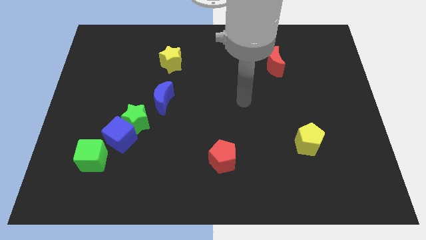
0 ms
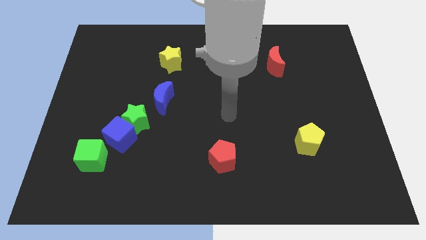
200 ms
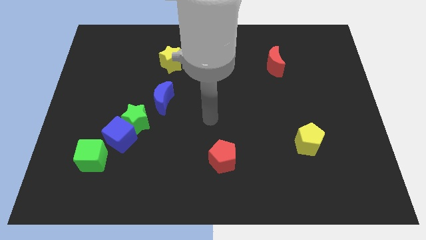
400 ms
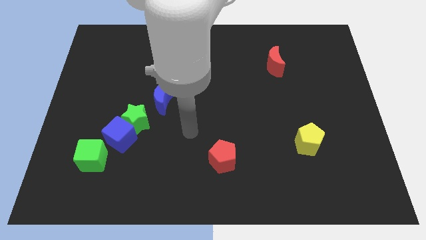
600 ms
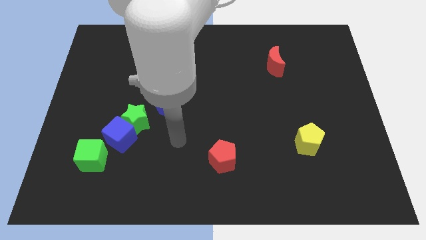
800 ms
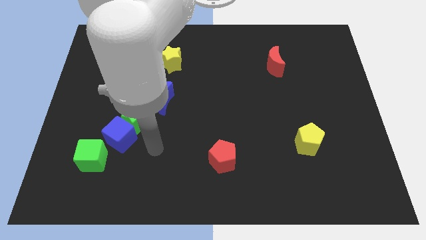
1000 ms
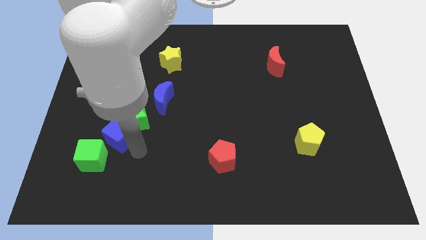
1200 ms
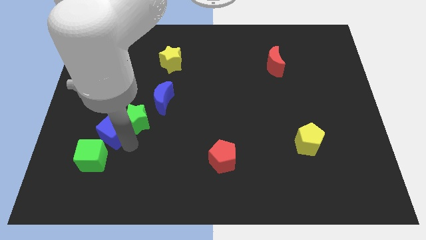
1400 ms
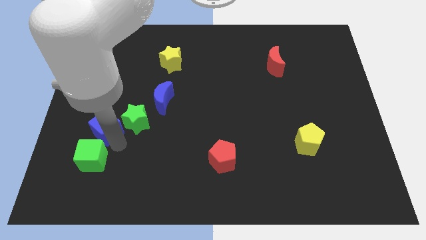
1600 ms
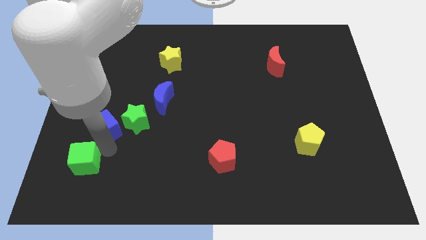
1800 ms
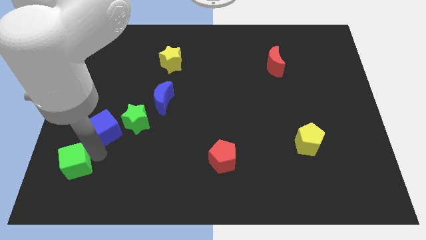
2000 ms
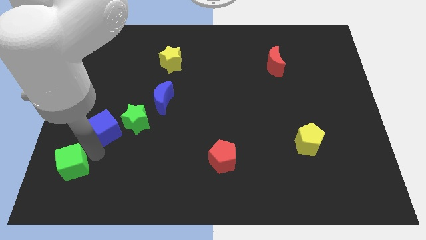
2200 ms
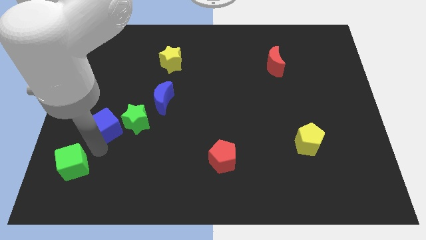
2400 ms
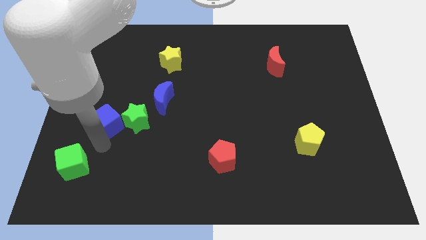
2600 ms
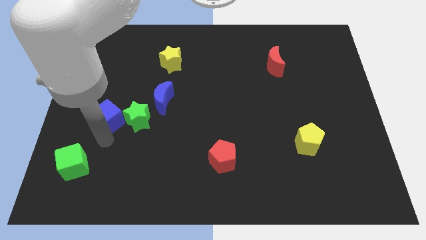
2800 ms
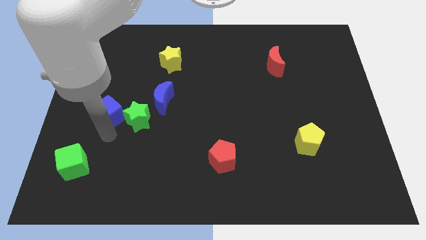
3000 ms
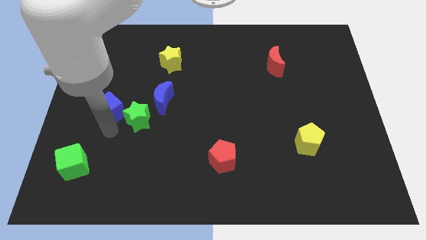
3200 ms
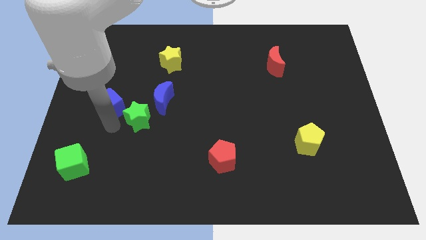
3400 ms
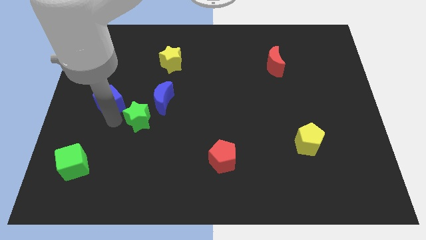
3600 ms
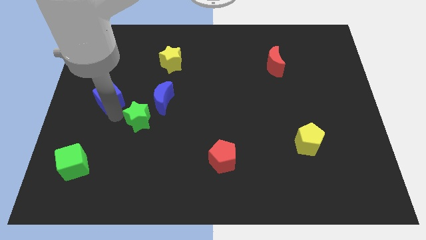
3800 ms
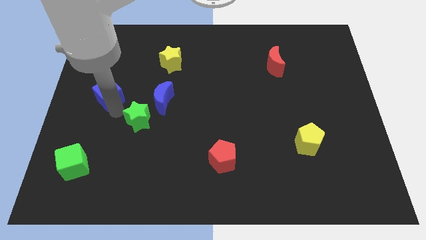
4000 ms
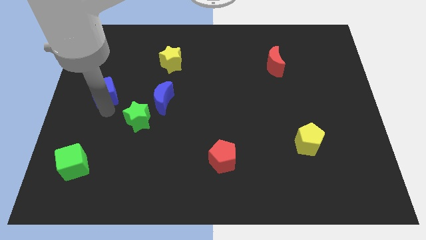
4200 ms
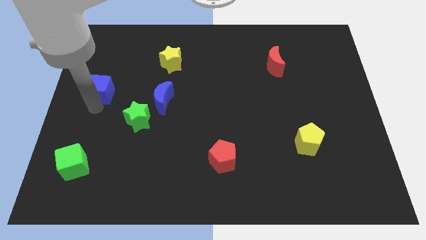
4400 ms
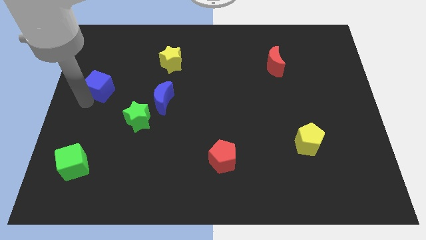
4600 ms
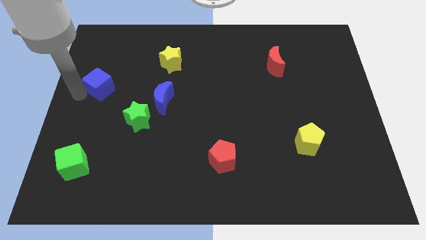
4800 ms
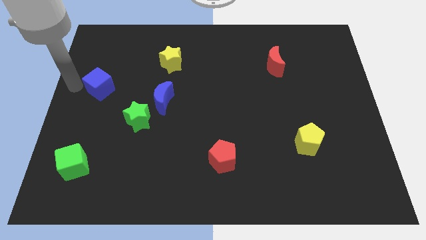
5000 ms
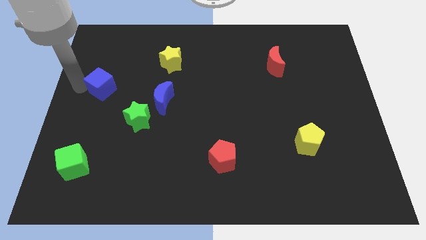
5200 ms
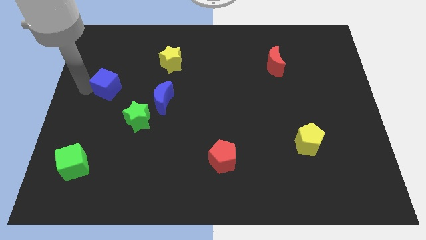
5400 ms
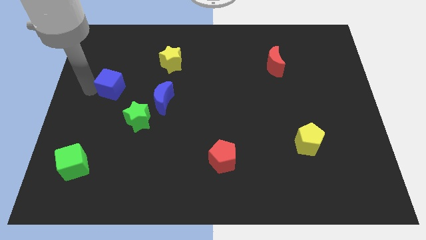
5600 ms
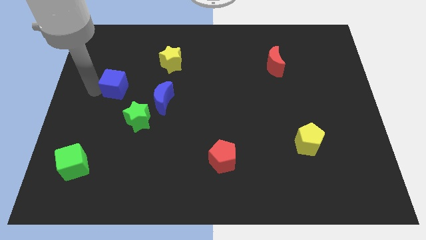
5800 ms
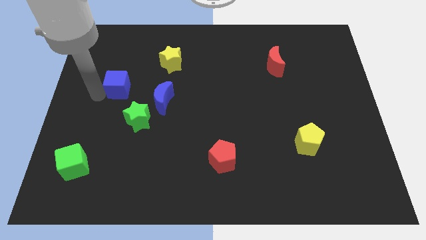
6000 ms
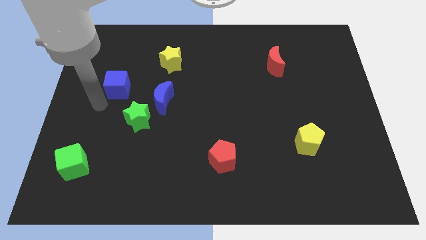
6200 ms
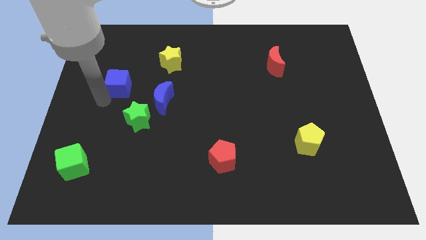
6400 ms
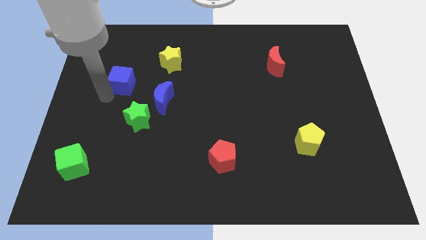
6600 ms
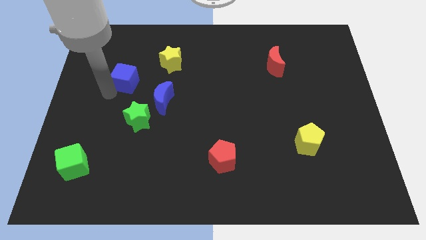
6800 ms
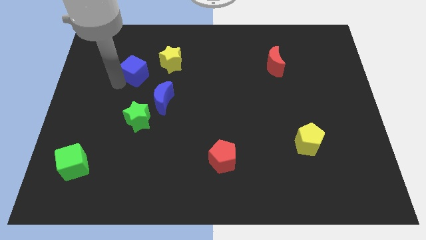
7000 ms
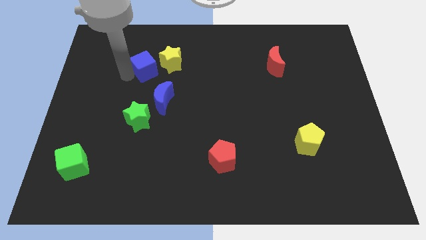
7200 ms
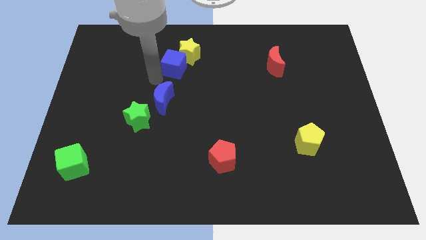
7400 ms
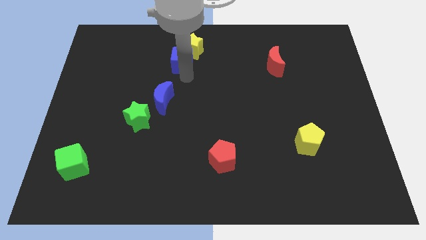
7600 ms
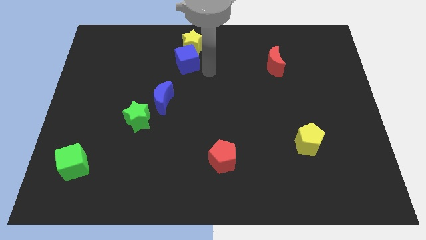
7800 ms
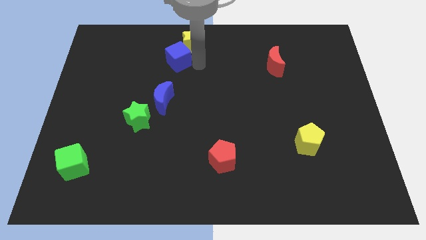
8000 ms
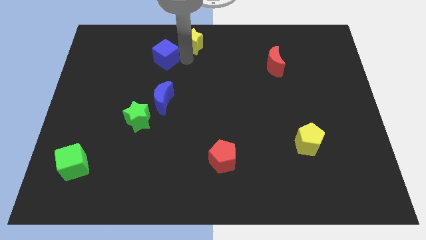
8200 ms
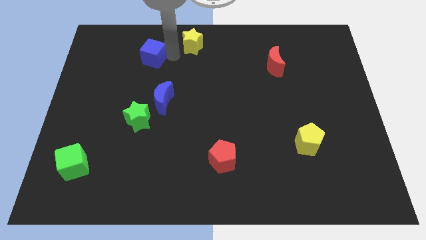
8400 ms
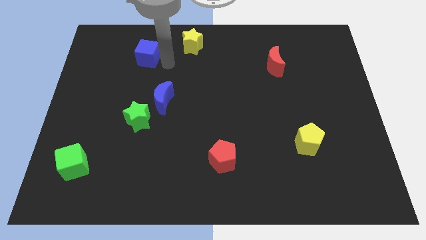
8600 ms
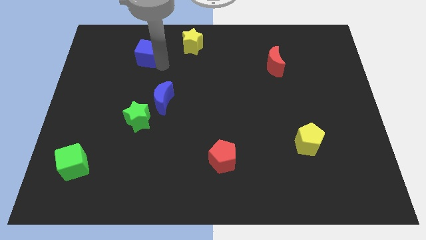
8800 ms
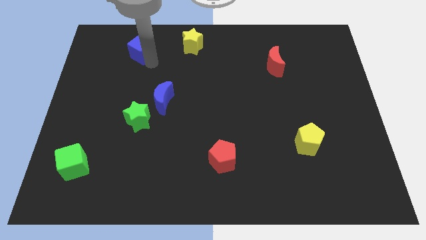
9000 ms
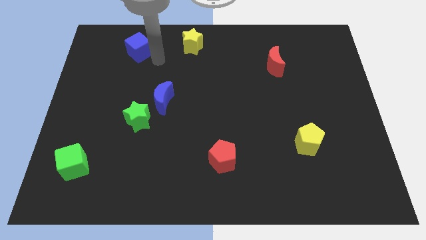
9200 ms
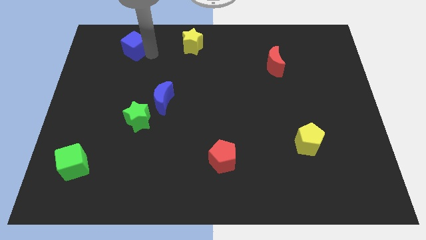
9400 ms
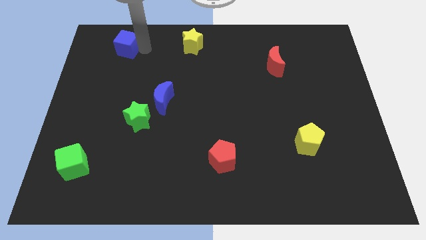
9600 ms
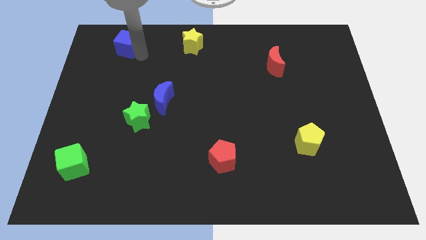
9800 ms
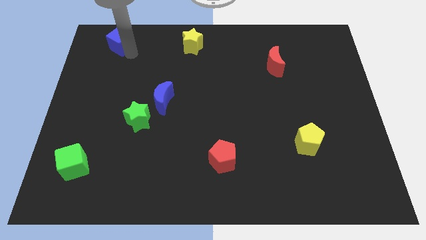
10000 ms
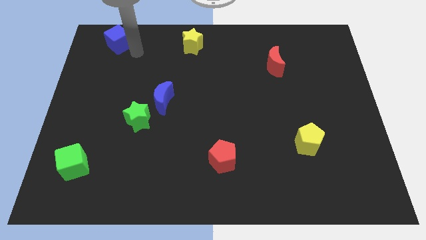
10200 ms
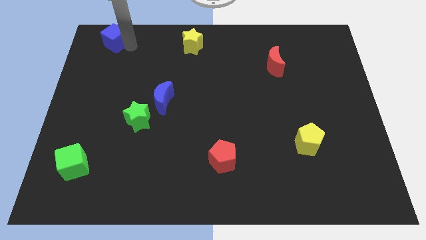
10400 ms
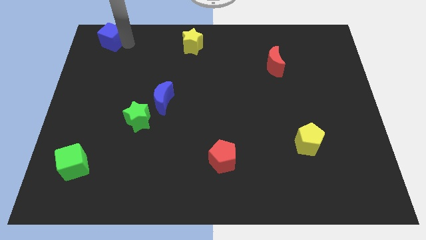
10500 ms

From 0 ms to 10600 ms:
slide the blue cube to the upper left corner

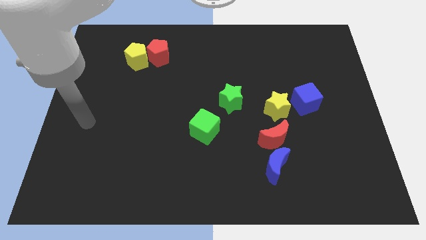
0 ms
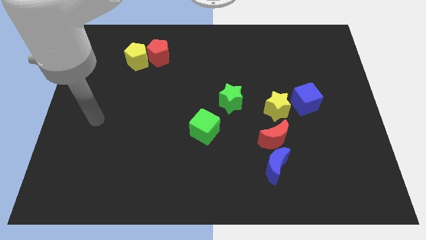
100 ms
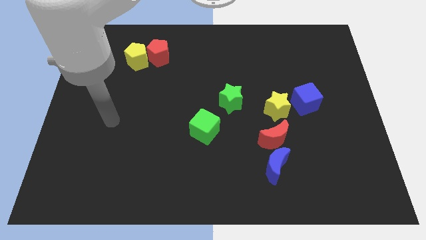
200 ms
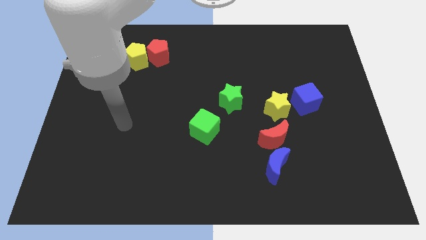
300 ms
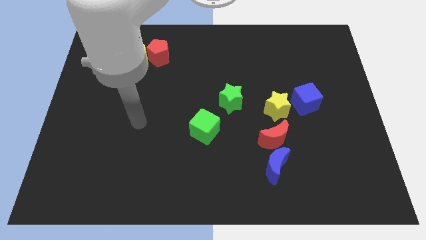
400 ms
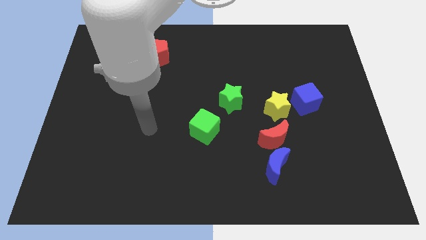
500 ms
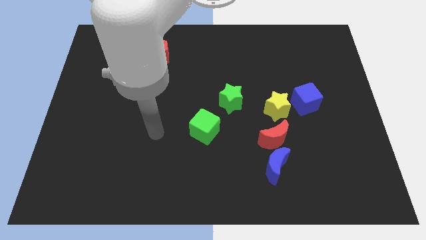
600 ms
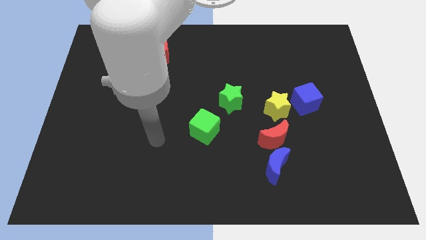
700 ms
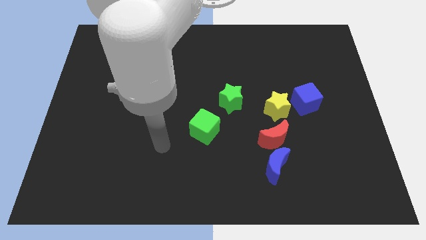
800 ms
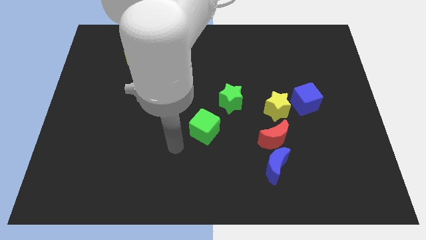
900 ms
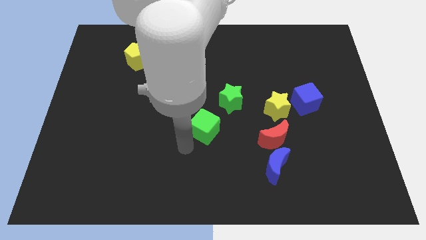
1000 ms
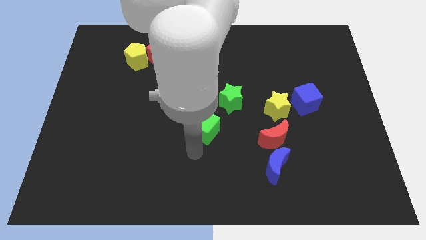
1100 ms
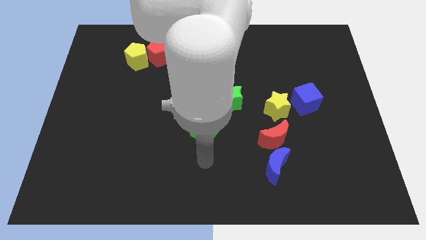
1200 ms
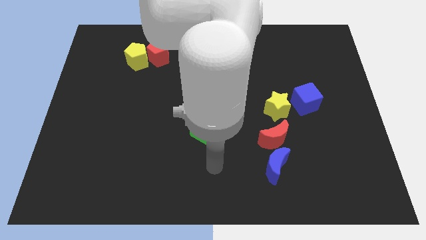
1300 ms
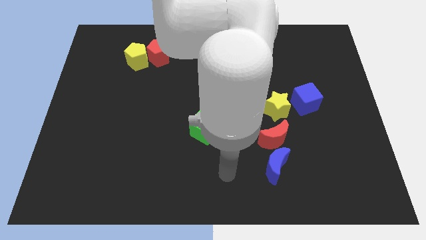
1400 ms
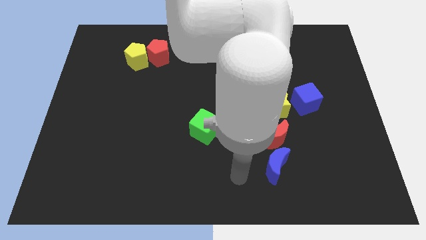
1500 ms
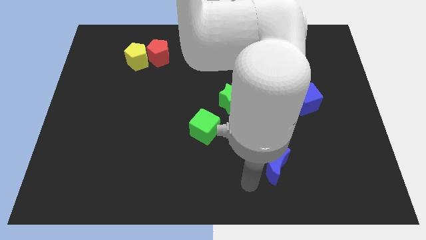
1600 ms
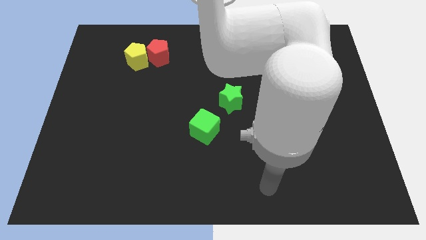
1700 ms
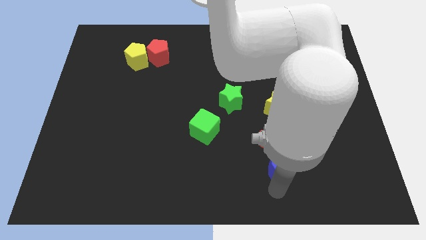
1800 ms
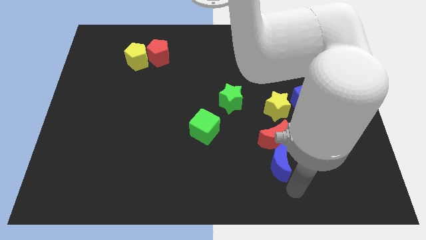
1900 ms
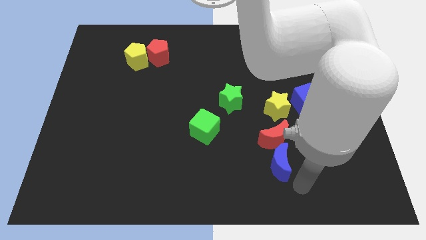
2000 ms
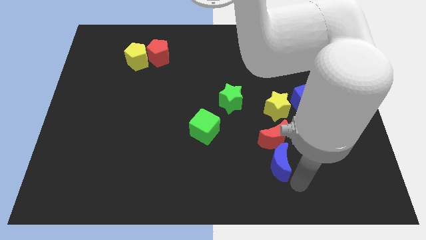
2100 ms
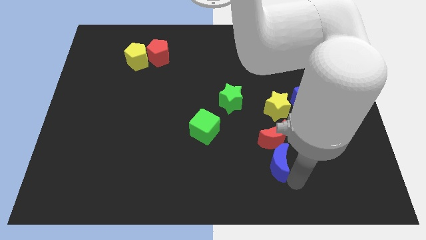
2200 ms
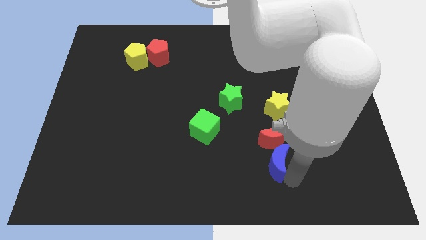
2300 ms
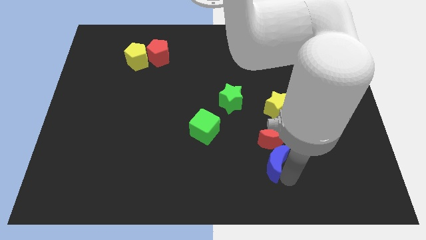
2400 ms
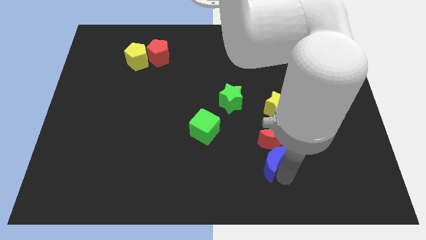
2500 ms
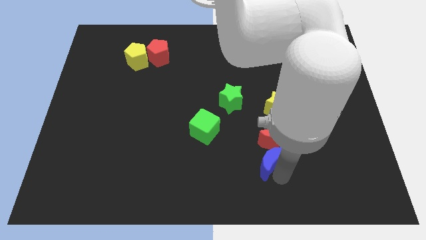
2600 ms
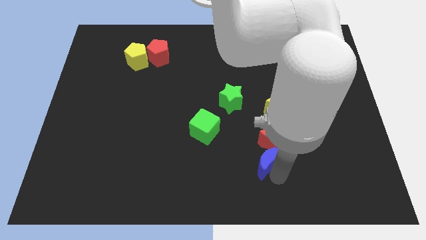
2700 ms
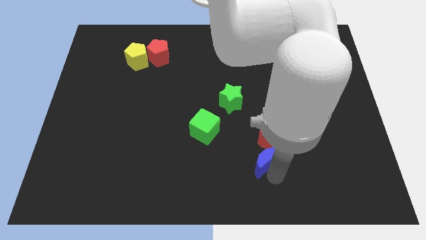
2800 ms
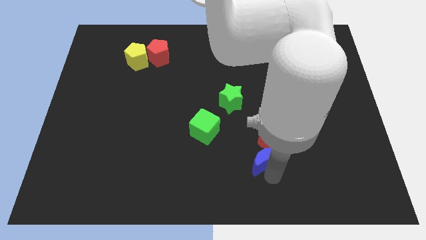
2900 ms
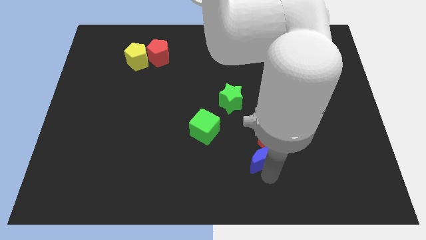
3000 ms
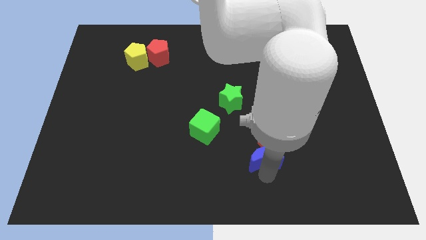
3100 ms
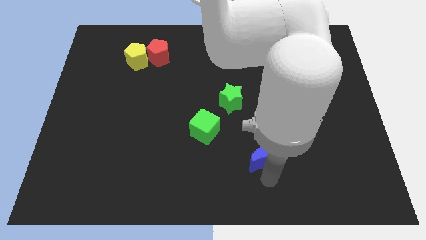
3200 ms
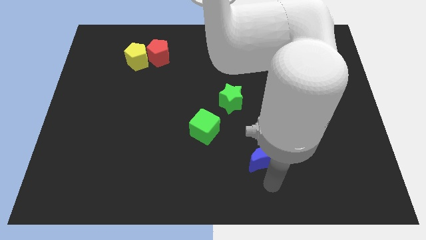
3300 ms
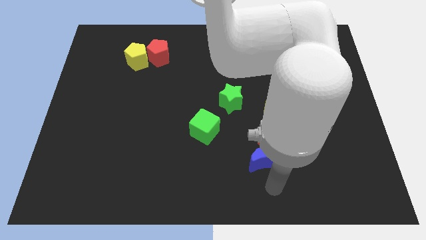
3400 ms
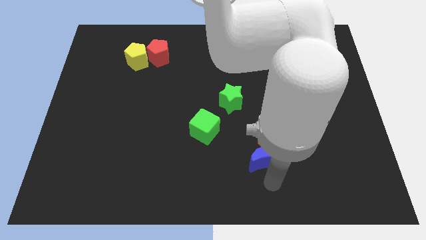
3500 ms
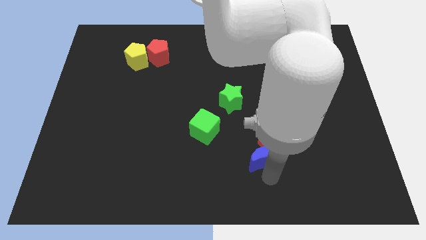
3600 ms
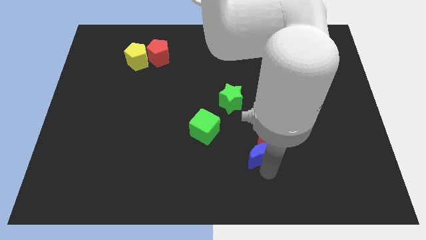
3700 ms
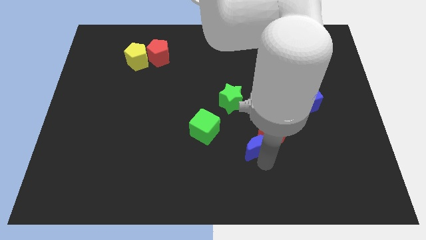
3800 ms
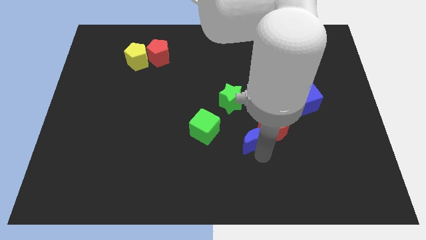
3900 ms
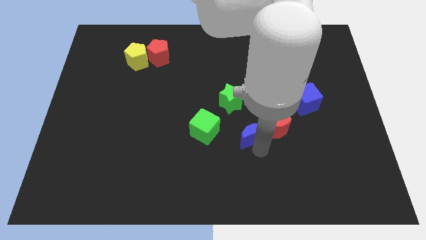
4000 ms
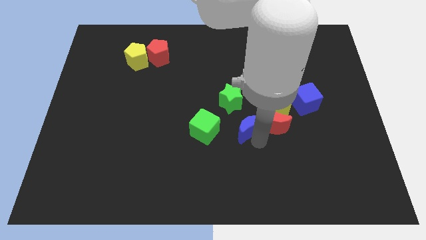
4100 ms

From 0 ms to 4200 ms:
slide the blue moon to the center of the board
